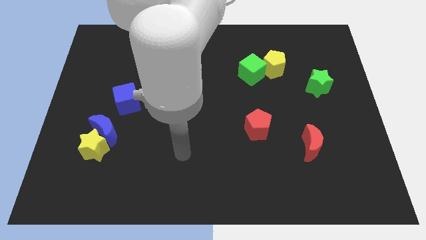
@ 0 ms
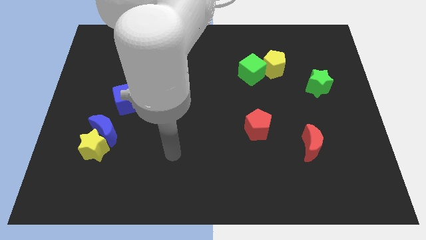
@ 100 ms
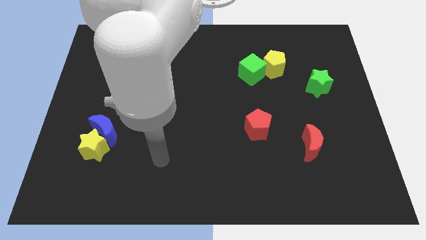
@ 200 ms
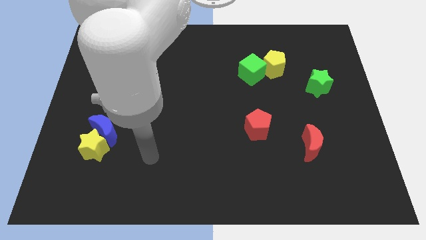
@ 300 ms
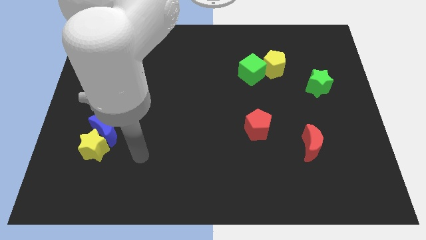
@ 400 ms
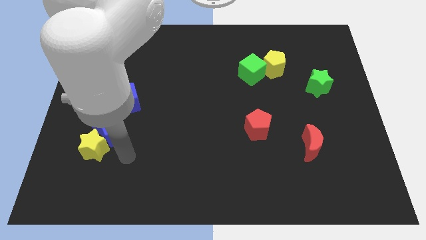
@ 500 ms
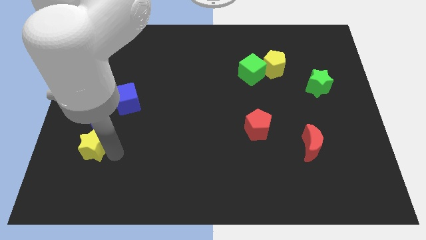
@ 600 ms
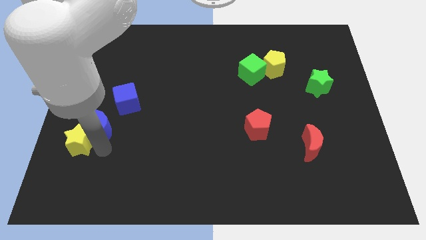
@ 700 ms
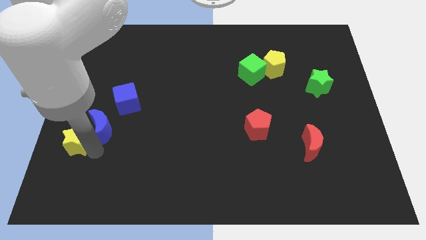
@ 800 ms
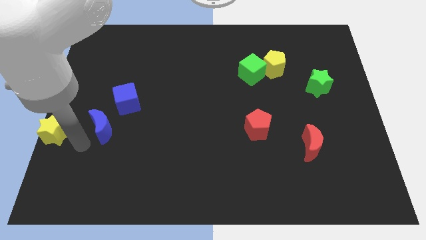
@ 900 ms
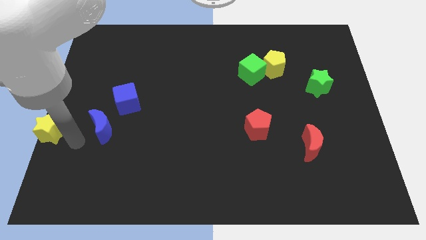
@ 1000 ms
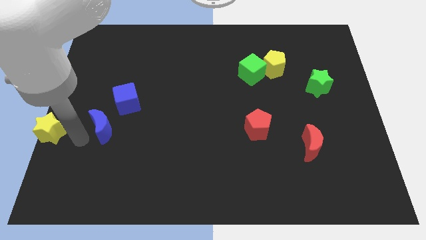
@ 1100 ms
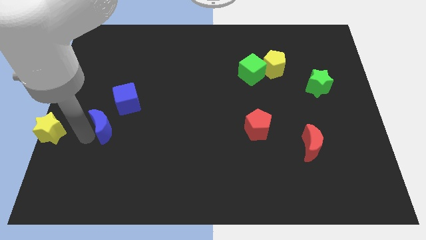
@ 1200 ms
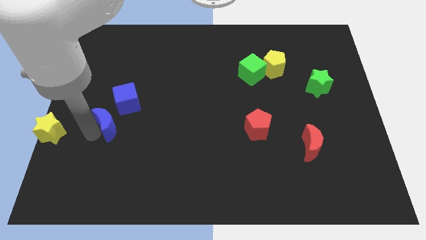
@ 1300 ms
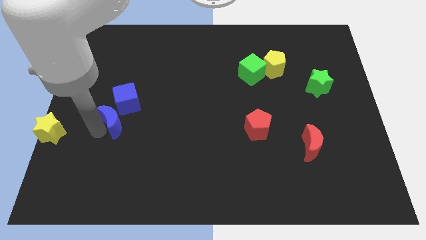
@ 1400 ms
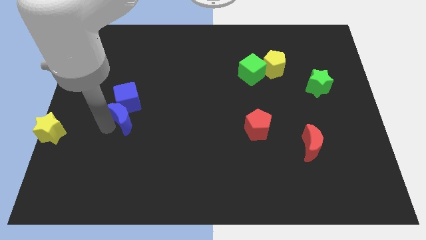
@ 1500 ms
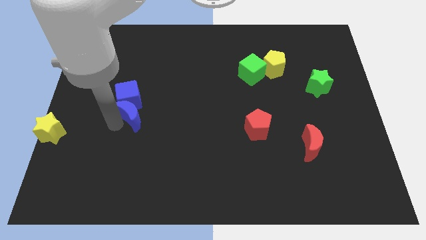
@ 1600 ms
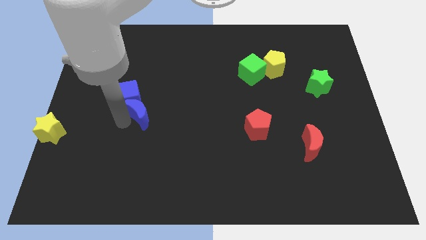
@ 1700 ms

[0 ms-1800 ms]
slide the blue moon a bit up and to the right diagonally

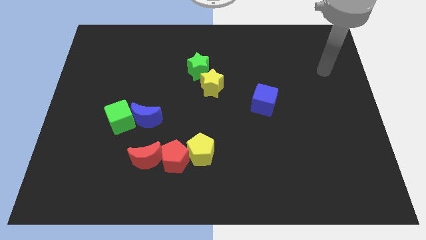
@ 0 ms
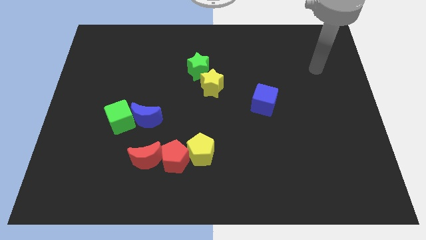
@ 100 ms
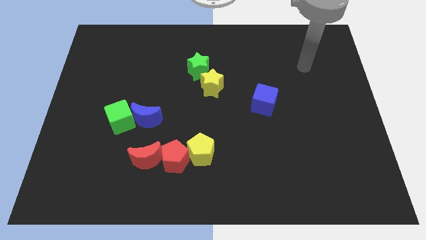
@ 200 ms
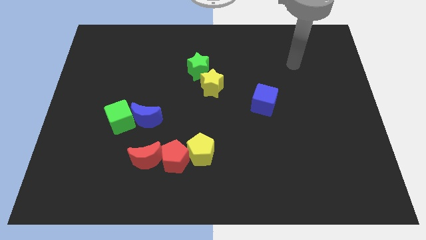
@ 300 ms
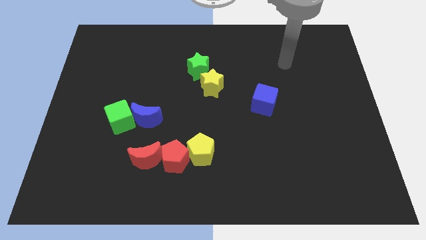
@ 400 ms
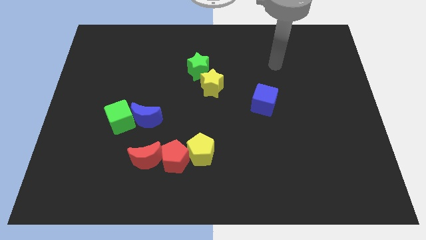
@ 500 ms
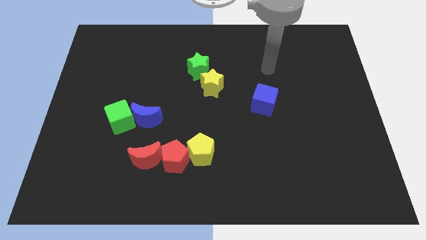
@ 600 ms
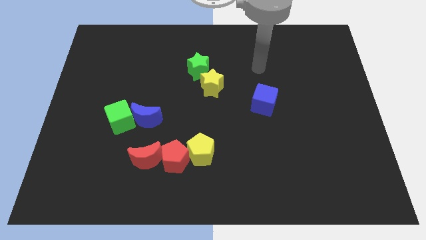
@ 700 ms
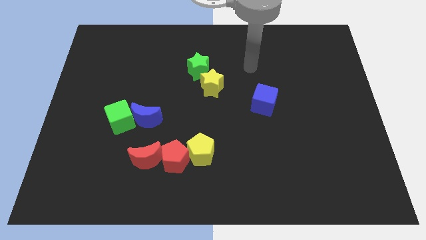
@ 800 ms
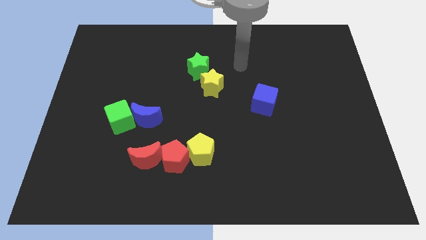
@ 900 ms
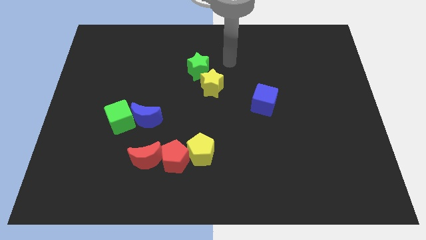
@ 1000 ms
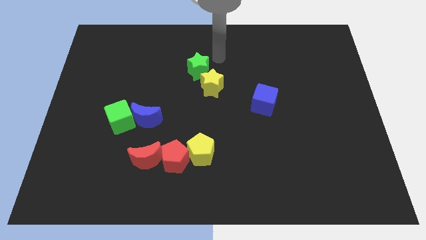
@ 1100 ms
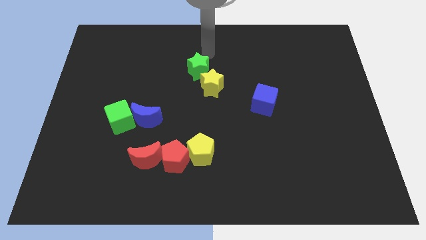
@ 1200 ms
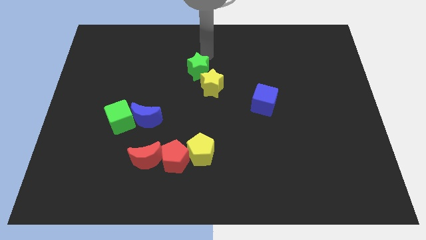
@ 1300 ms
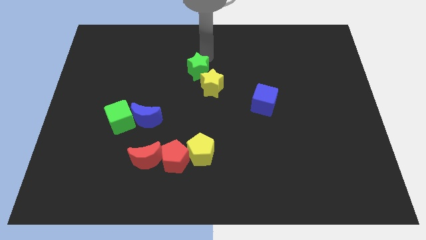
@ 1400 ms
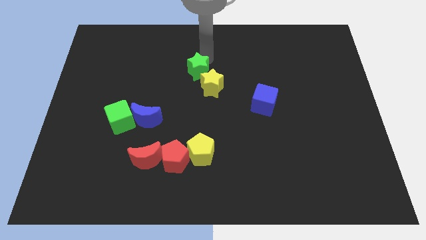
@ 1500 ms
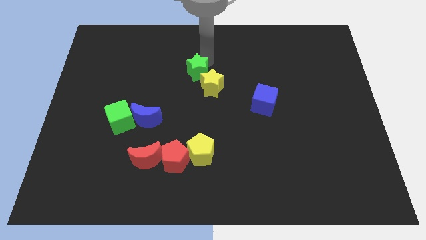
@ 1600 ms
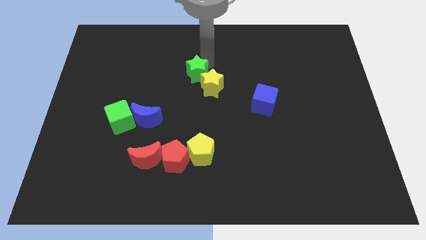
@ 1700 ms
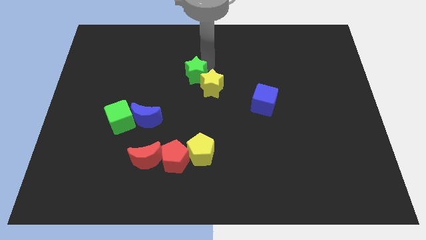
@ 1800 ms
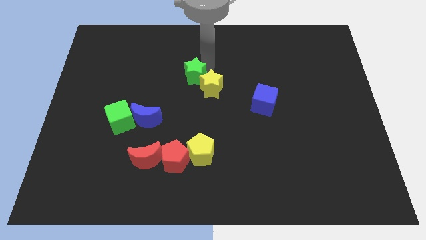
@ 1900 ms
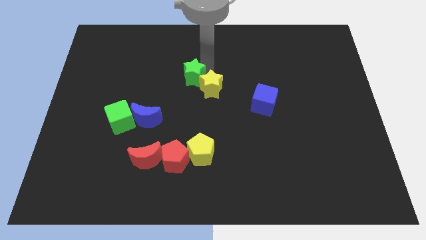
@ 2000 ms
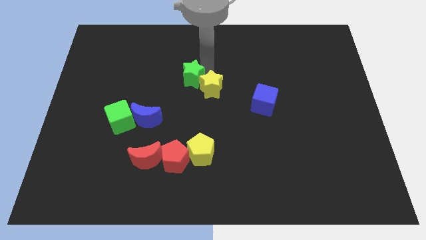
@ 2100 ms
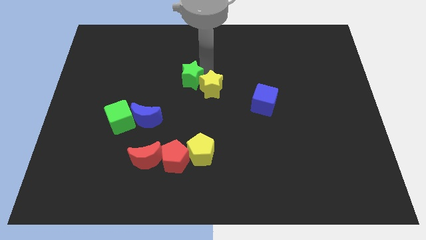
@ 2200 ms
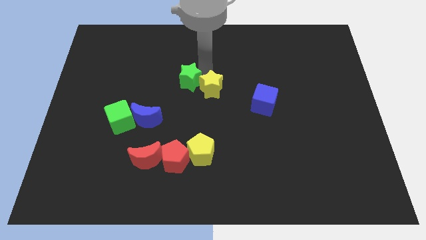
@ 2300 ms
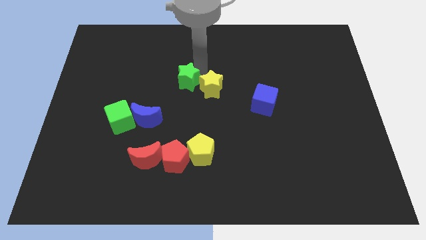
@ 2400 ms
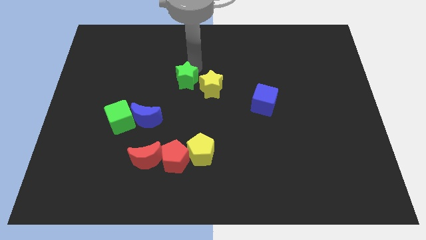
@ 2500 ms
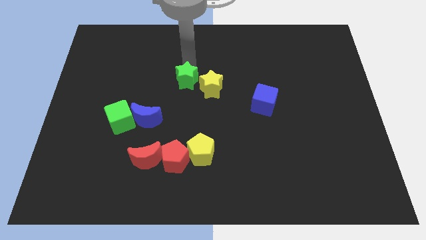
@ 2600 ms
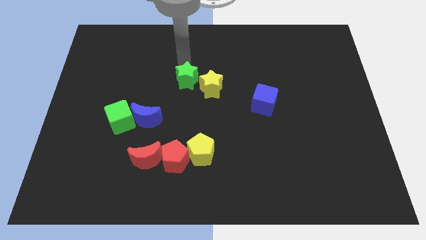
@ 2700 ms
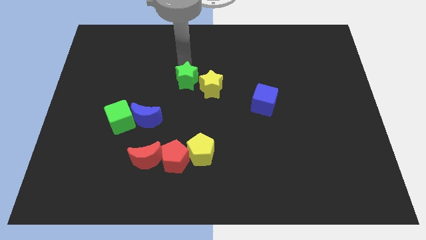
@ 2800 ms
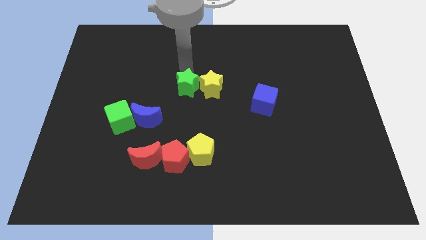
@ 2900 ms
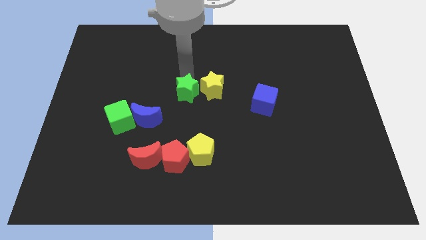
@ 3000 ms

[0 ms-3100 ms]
slightly move the green star downwards

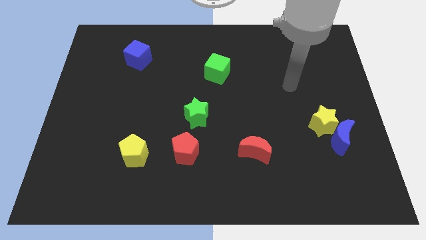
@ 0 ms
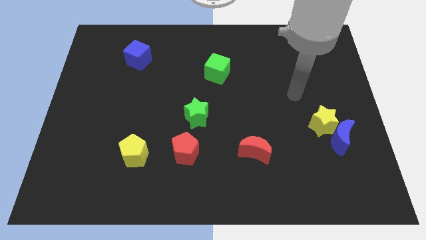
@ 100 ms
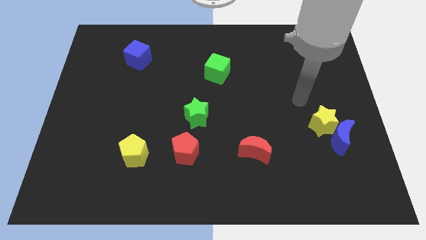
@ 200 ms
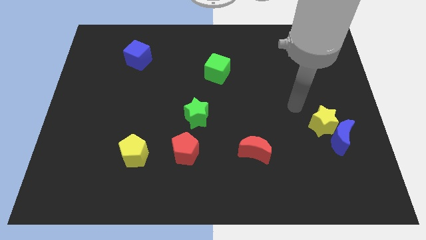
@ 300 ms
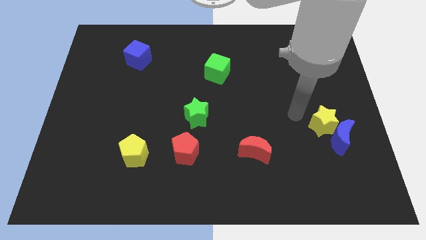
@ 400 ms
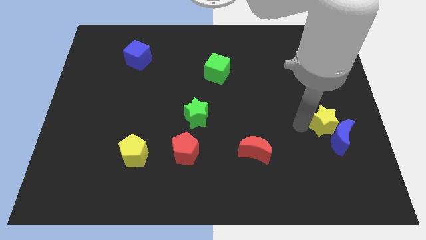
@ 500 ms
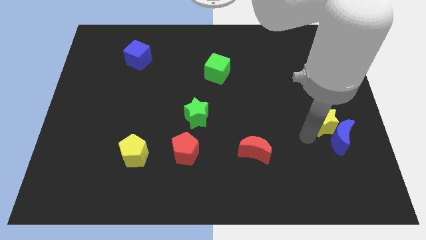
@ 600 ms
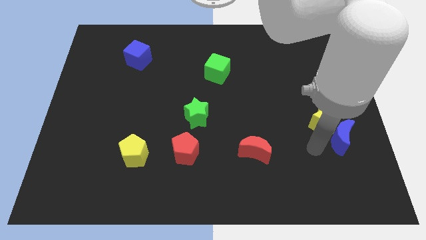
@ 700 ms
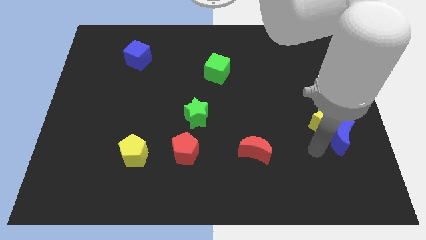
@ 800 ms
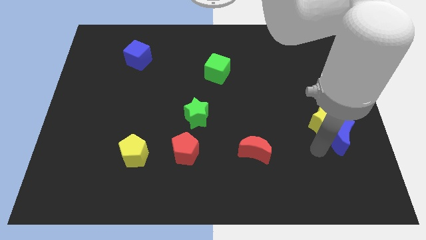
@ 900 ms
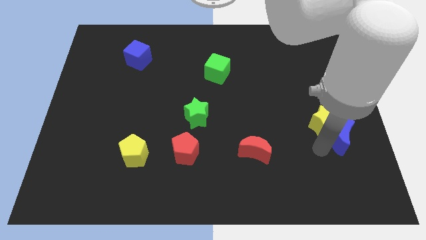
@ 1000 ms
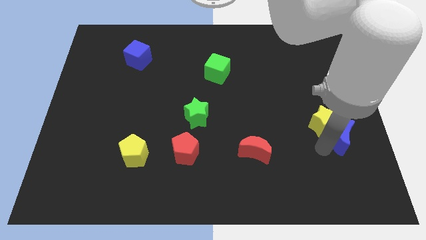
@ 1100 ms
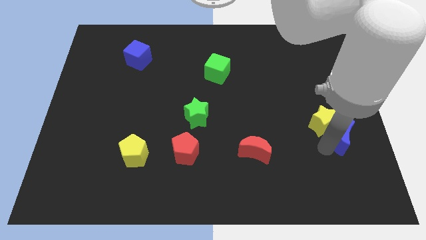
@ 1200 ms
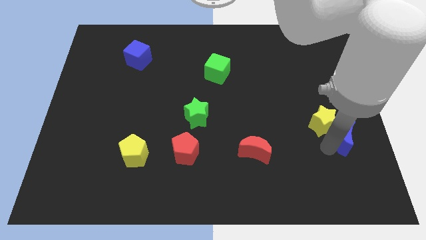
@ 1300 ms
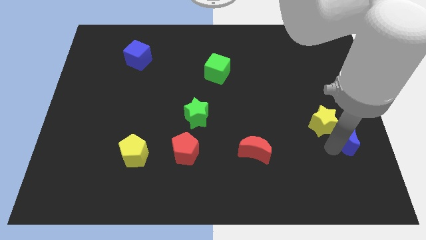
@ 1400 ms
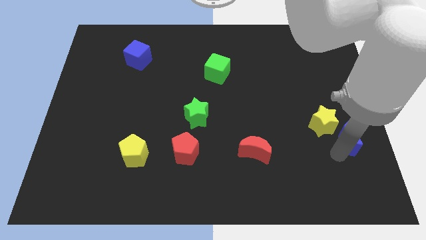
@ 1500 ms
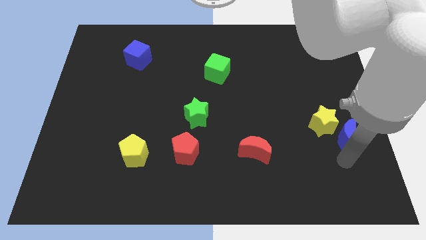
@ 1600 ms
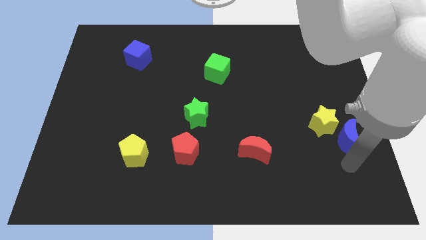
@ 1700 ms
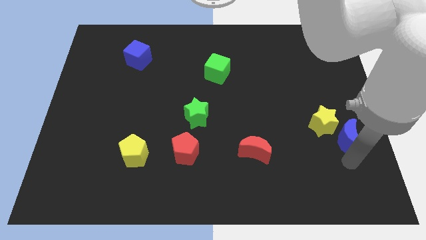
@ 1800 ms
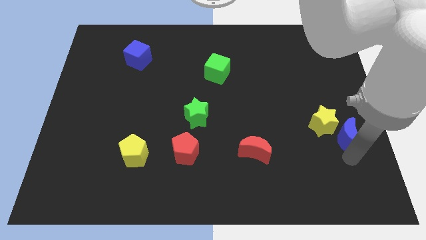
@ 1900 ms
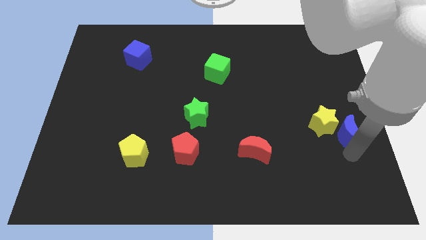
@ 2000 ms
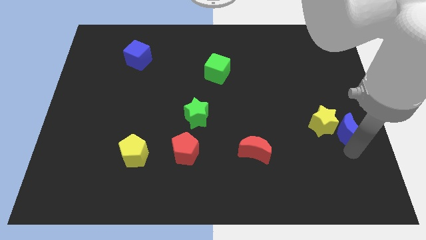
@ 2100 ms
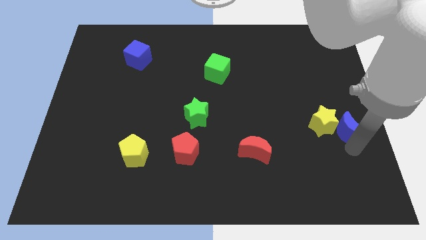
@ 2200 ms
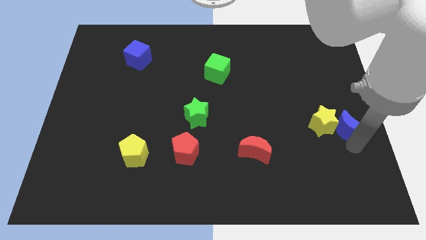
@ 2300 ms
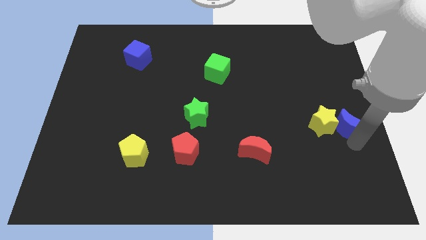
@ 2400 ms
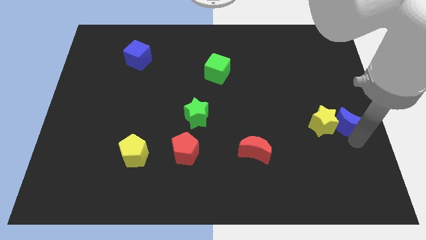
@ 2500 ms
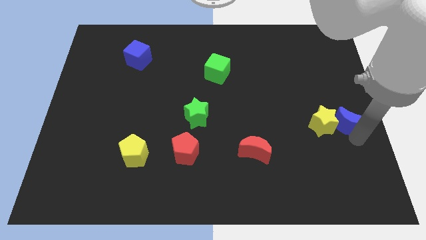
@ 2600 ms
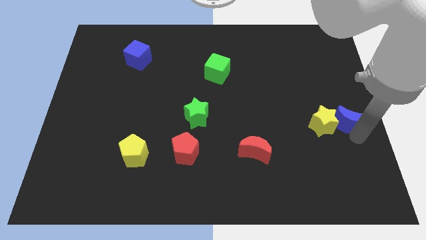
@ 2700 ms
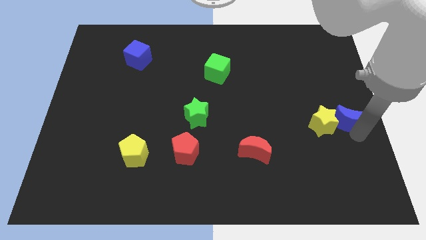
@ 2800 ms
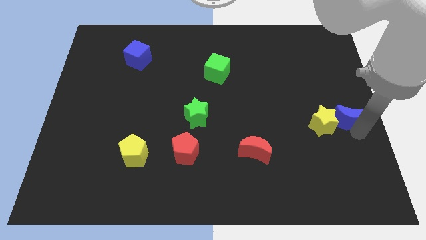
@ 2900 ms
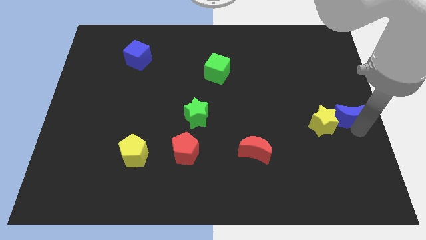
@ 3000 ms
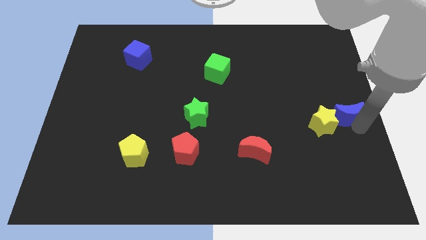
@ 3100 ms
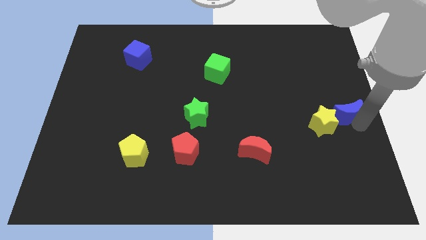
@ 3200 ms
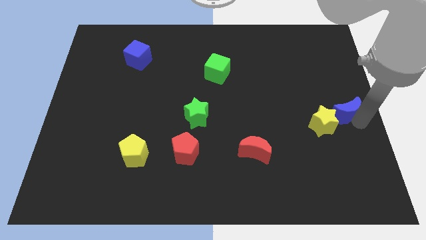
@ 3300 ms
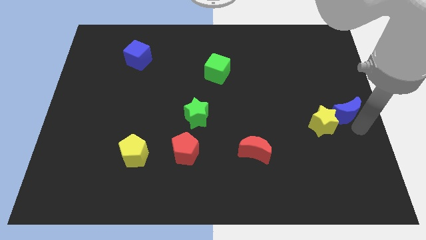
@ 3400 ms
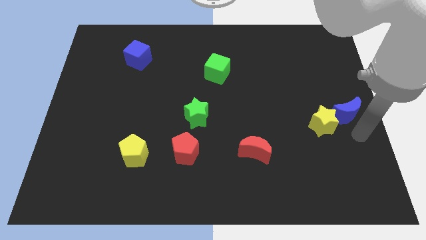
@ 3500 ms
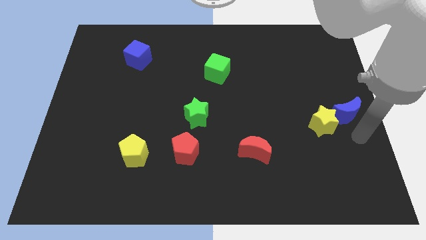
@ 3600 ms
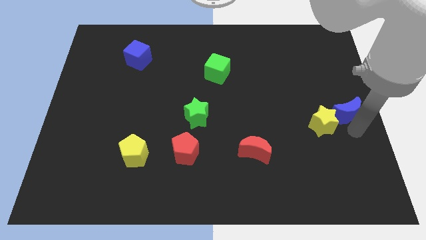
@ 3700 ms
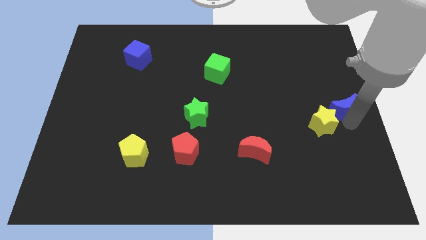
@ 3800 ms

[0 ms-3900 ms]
move the blue moon slightly up
